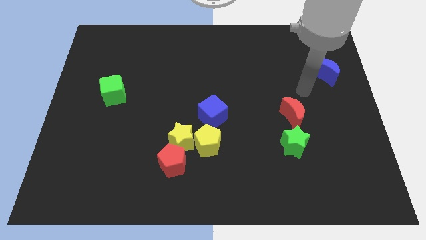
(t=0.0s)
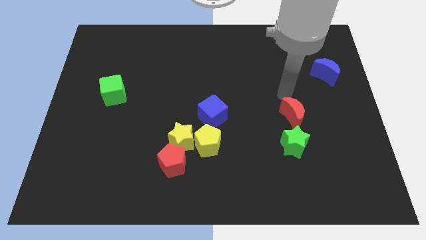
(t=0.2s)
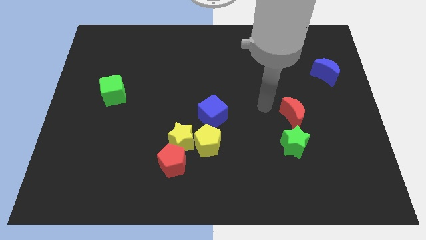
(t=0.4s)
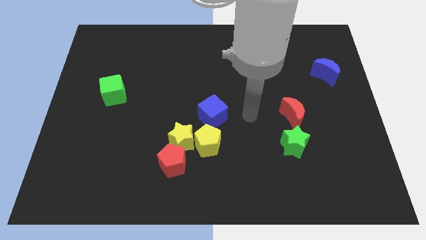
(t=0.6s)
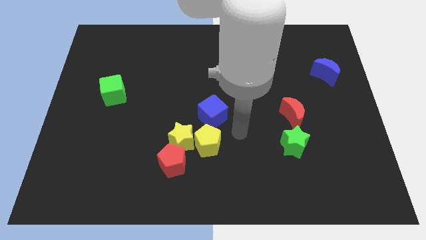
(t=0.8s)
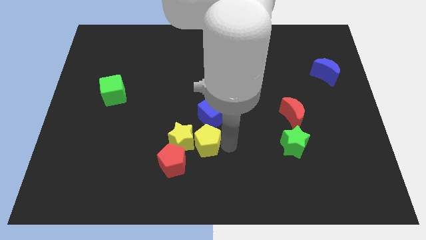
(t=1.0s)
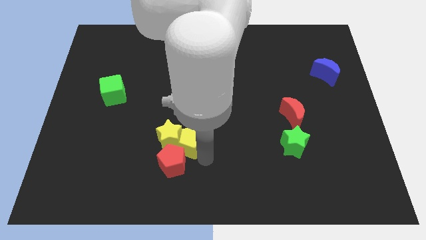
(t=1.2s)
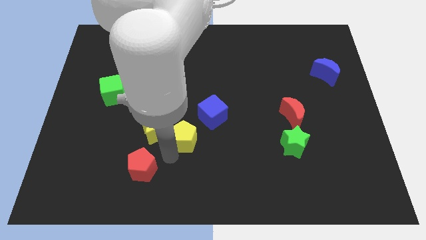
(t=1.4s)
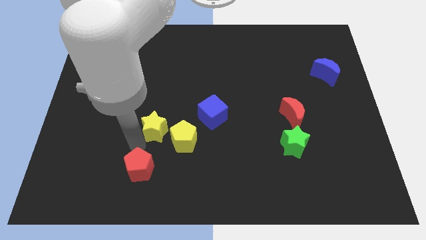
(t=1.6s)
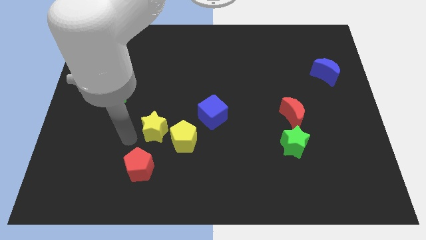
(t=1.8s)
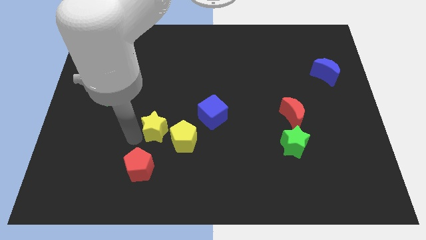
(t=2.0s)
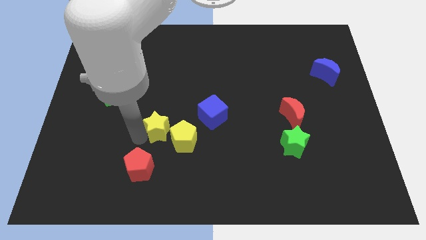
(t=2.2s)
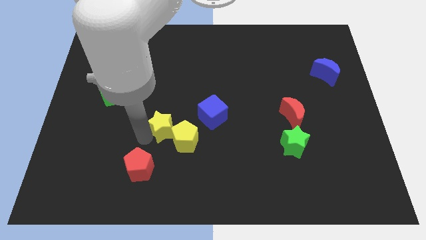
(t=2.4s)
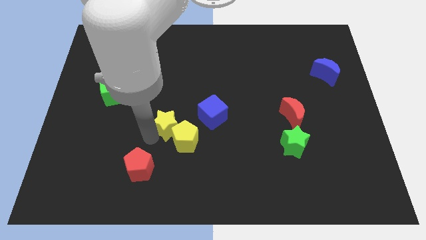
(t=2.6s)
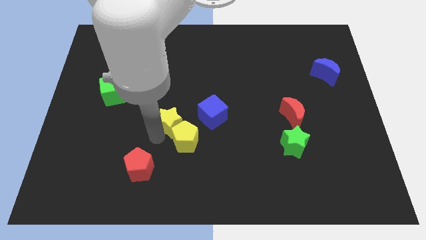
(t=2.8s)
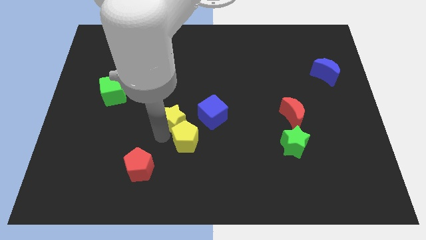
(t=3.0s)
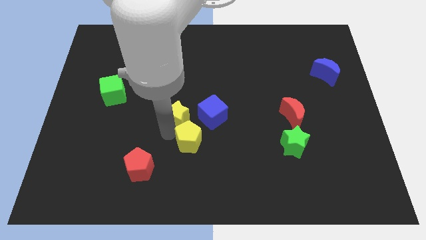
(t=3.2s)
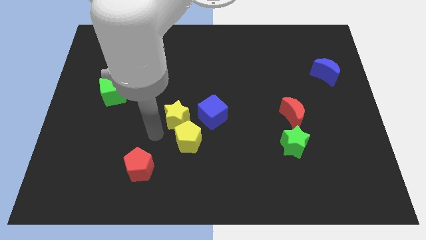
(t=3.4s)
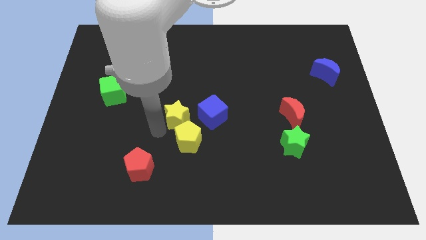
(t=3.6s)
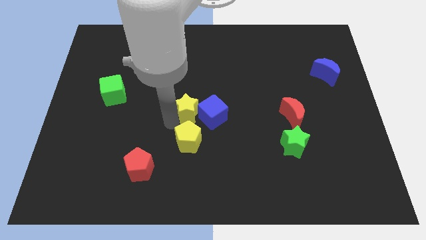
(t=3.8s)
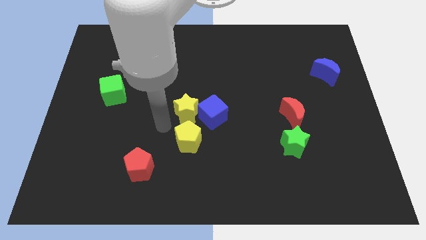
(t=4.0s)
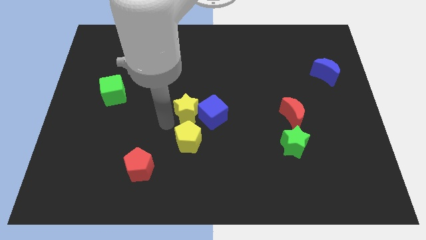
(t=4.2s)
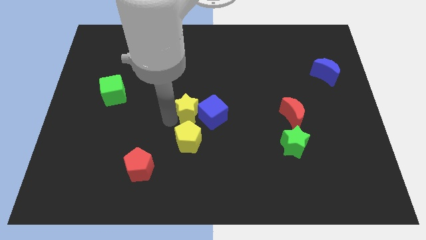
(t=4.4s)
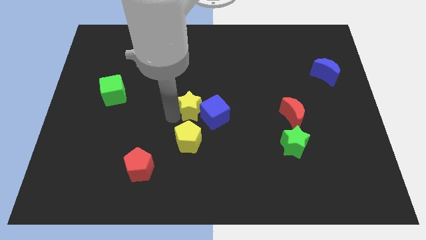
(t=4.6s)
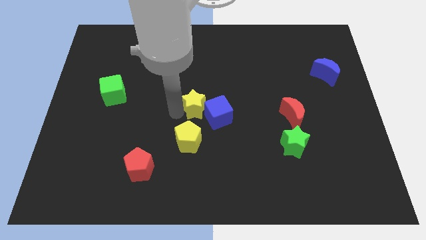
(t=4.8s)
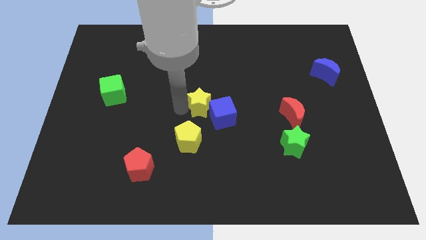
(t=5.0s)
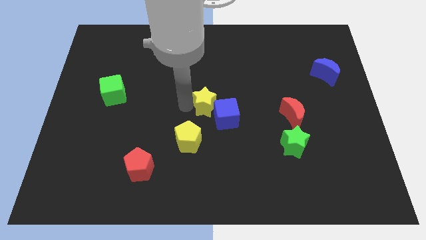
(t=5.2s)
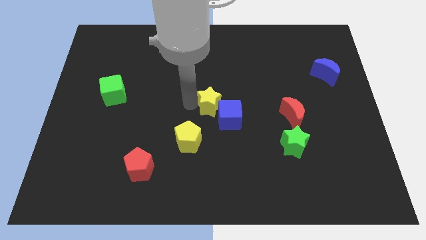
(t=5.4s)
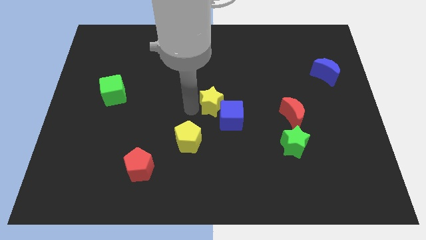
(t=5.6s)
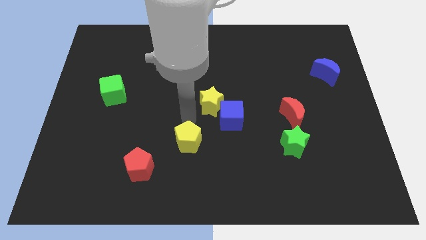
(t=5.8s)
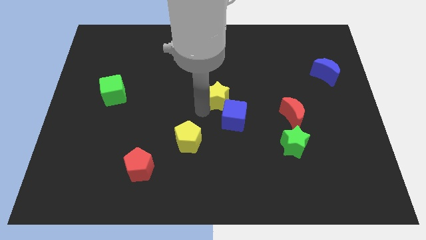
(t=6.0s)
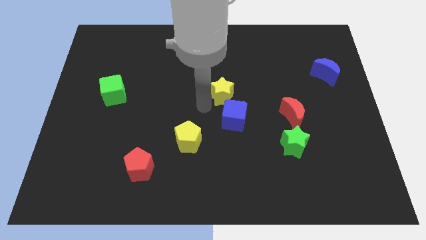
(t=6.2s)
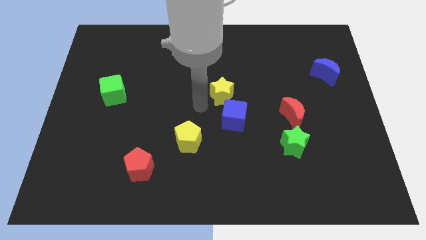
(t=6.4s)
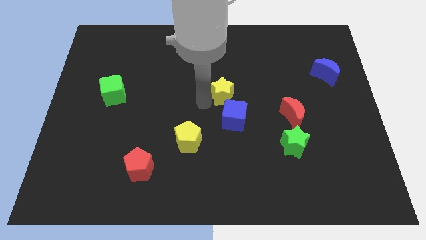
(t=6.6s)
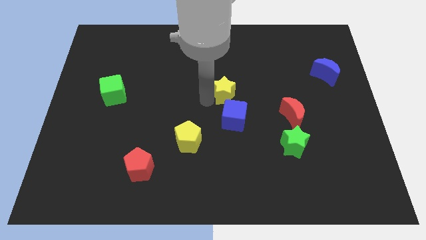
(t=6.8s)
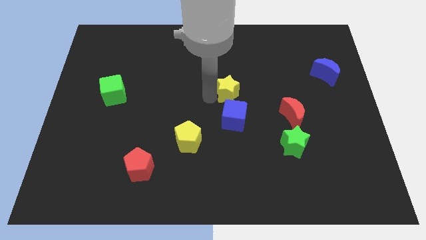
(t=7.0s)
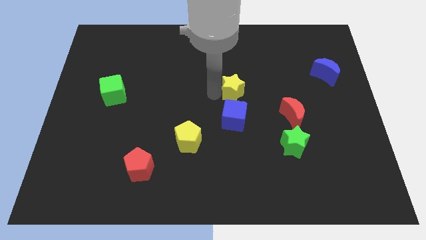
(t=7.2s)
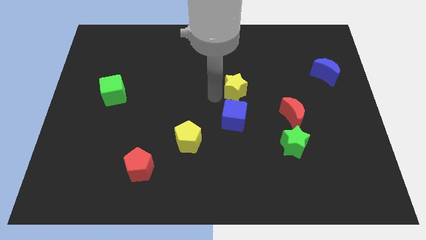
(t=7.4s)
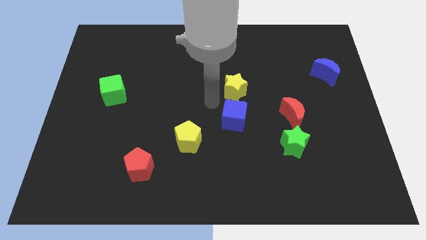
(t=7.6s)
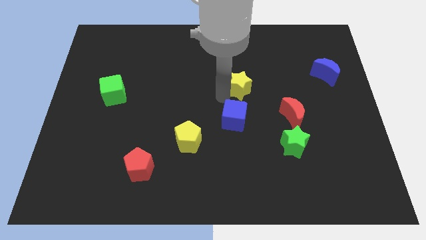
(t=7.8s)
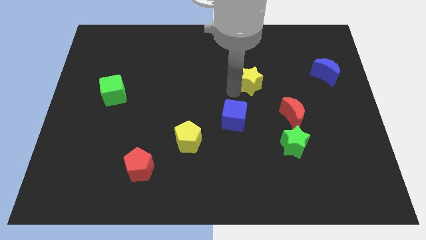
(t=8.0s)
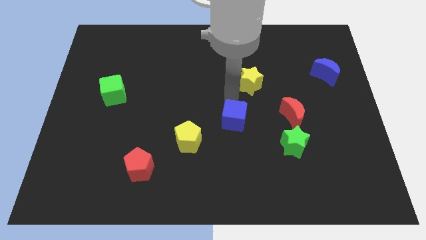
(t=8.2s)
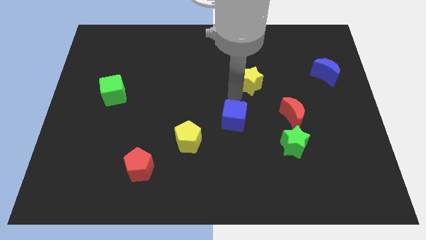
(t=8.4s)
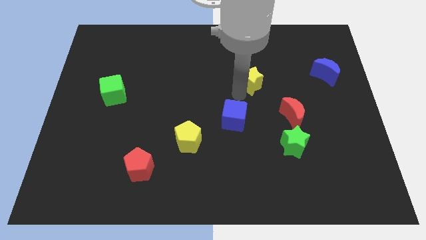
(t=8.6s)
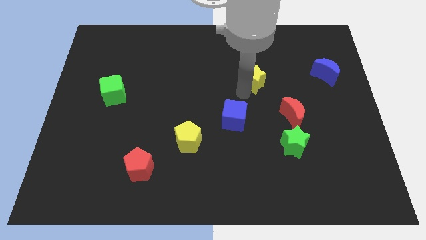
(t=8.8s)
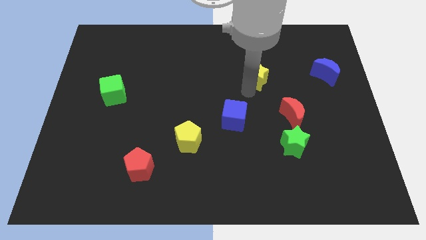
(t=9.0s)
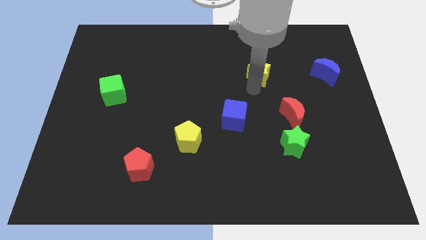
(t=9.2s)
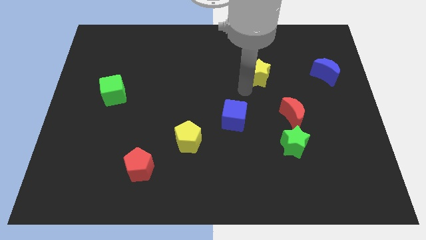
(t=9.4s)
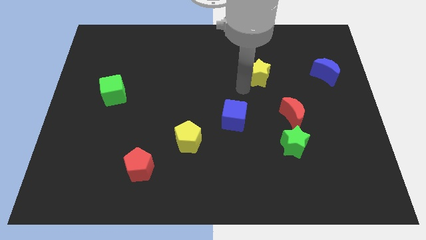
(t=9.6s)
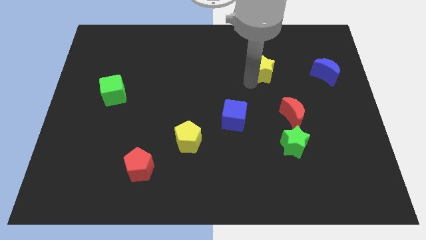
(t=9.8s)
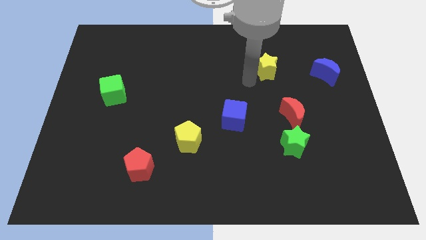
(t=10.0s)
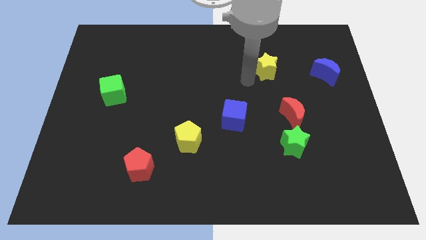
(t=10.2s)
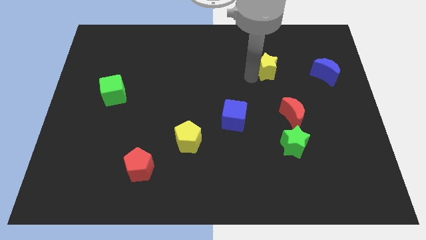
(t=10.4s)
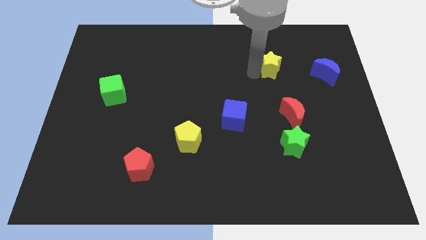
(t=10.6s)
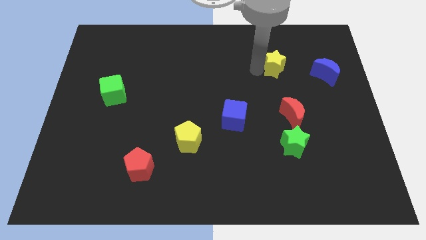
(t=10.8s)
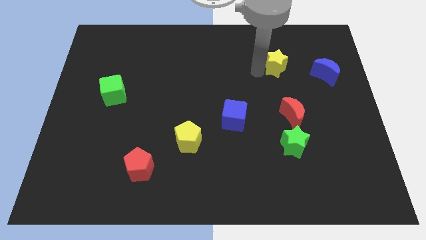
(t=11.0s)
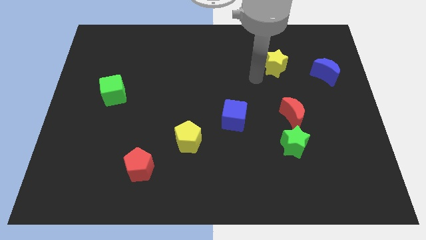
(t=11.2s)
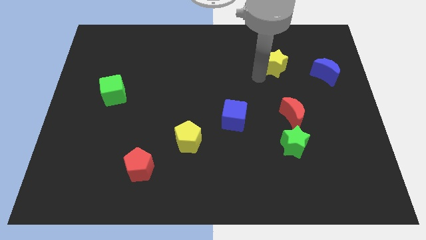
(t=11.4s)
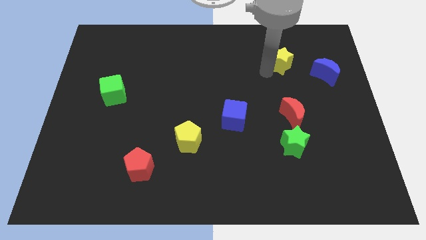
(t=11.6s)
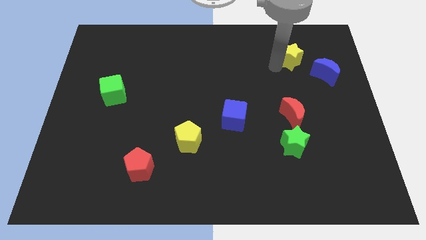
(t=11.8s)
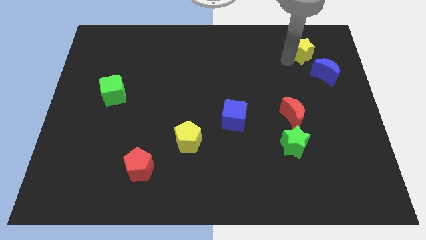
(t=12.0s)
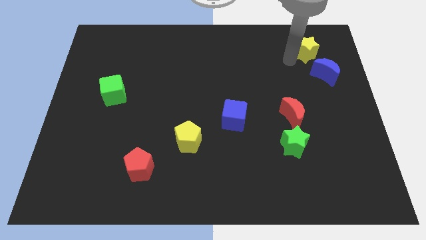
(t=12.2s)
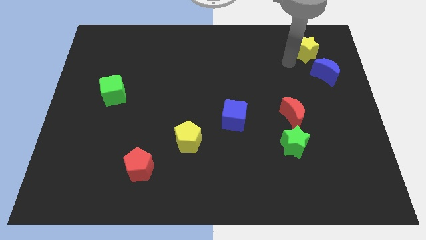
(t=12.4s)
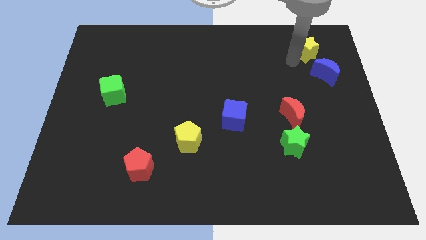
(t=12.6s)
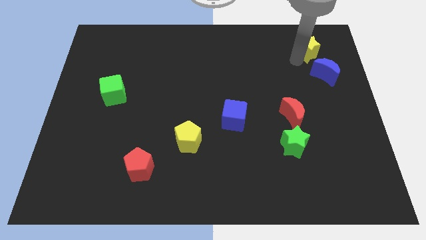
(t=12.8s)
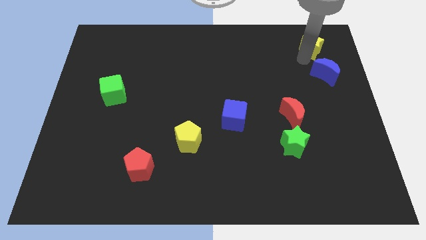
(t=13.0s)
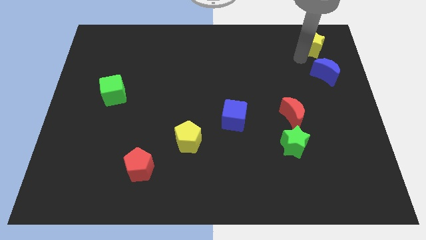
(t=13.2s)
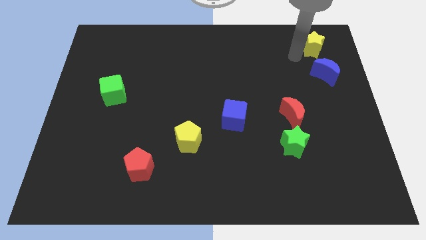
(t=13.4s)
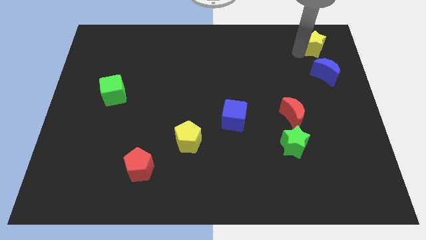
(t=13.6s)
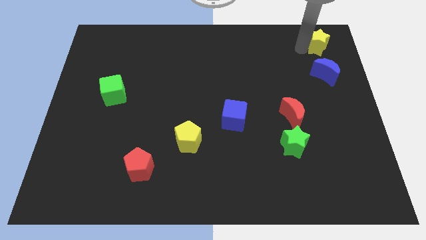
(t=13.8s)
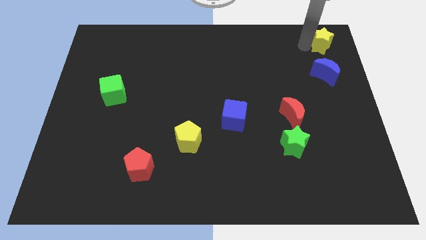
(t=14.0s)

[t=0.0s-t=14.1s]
push the yellow star to the top right corner
